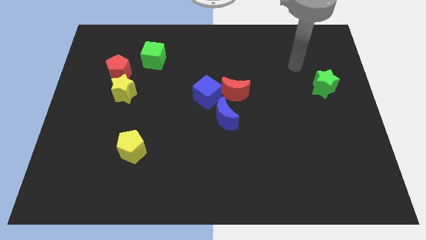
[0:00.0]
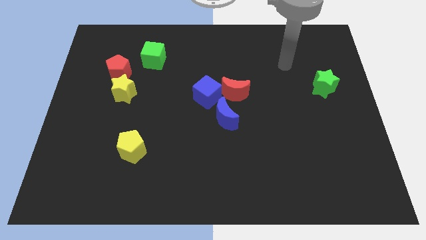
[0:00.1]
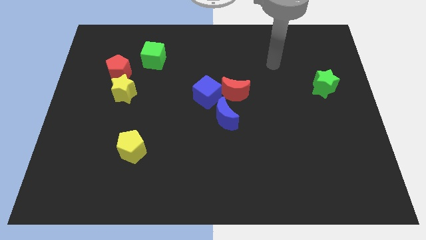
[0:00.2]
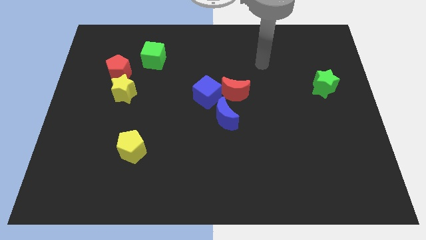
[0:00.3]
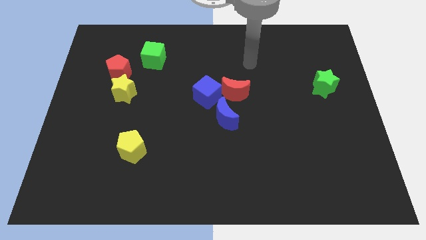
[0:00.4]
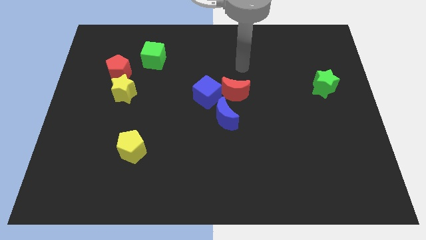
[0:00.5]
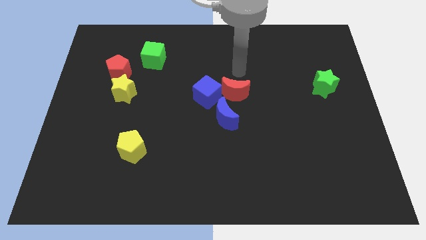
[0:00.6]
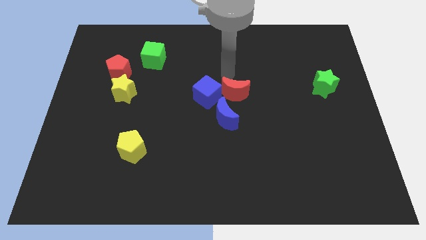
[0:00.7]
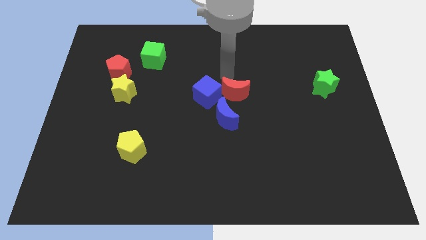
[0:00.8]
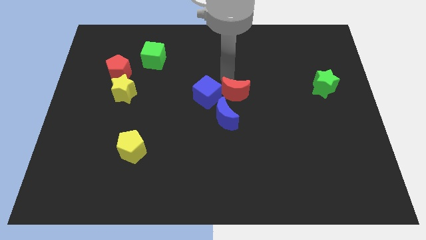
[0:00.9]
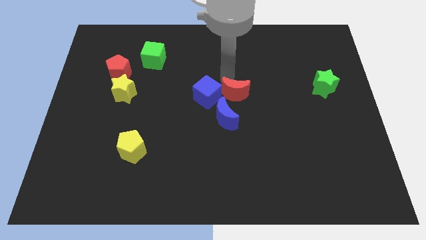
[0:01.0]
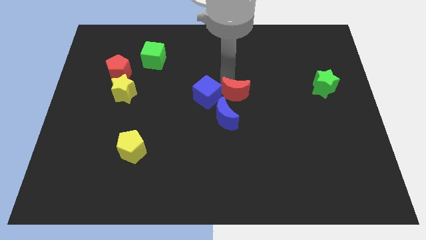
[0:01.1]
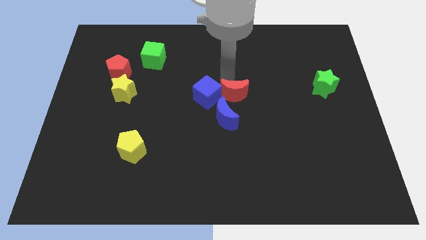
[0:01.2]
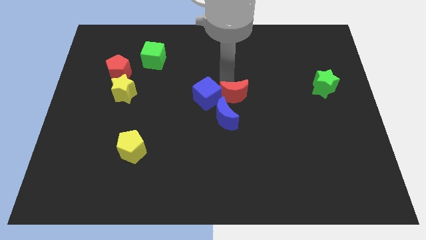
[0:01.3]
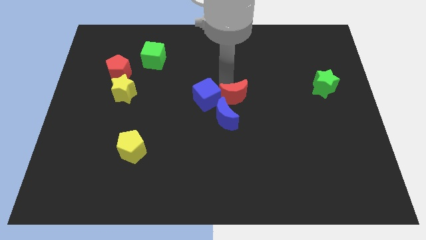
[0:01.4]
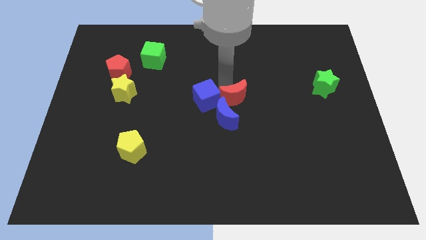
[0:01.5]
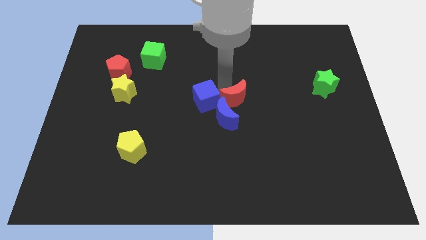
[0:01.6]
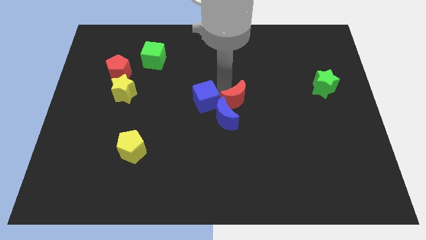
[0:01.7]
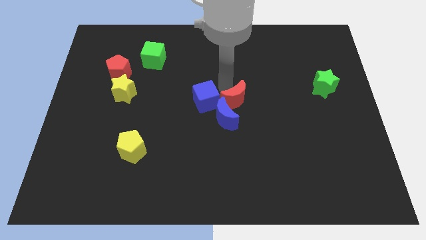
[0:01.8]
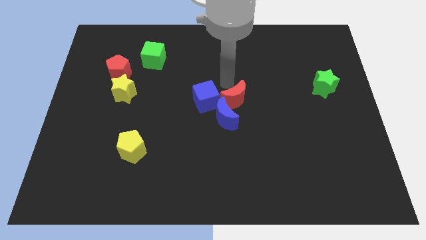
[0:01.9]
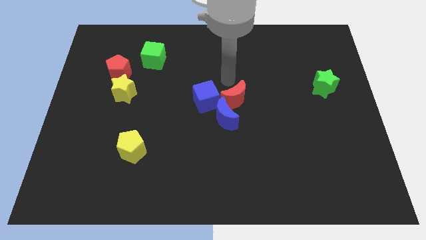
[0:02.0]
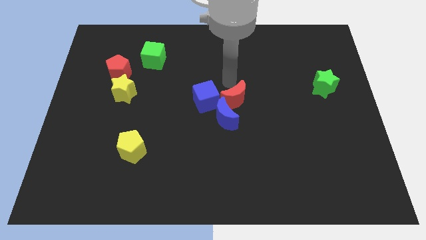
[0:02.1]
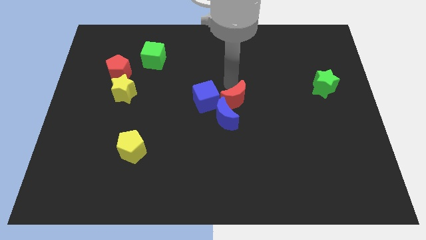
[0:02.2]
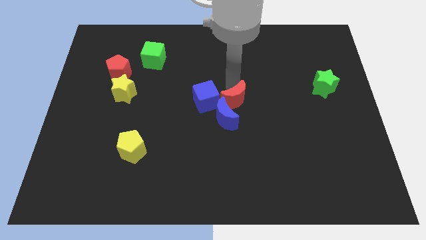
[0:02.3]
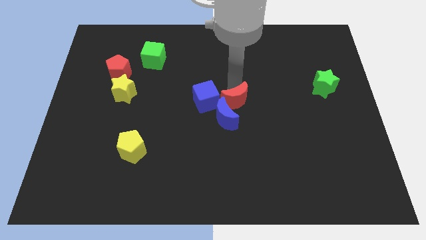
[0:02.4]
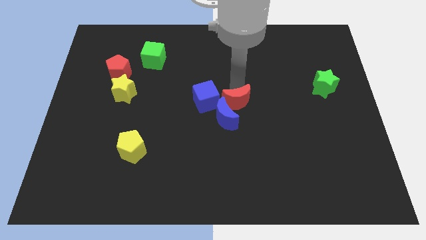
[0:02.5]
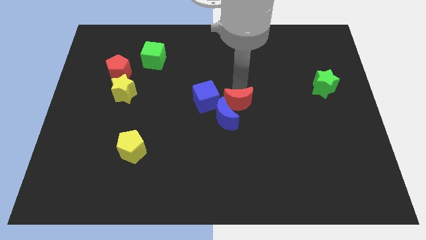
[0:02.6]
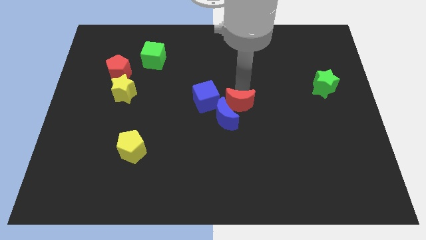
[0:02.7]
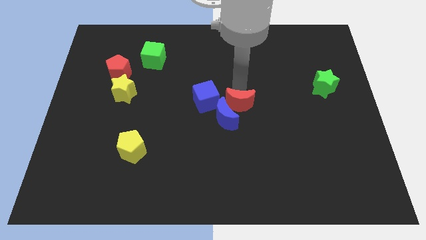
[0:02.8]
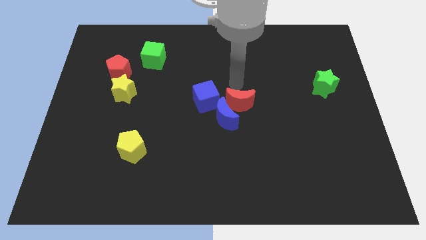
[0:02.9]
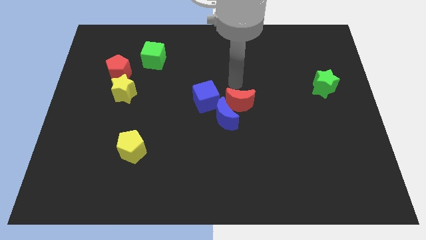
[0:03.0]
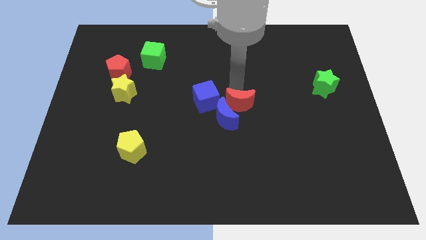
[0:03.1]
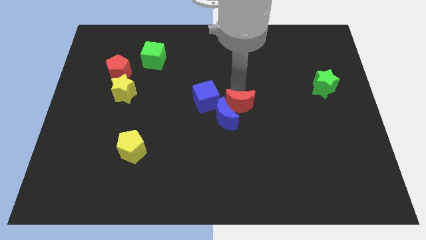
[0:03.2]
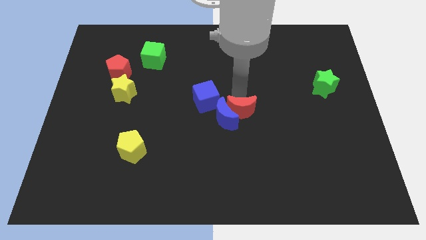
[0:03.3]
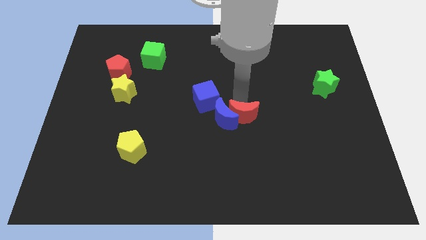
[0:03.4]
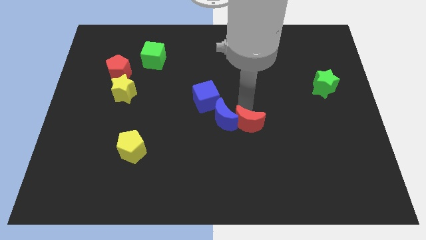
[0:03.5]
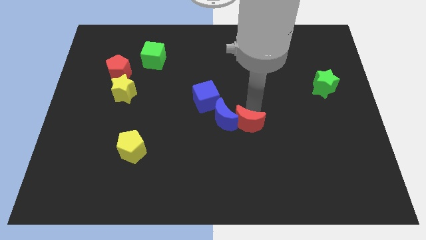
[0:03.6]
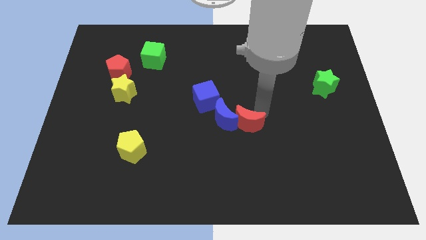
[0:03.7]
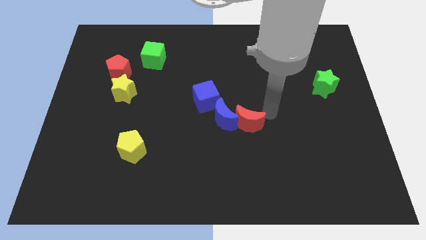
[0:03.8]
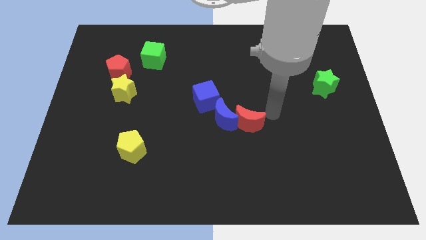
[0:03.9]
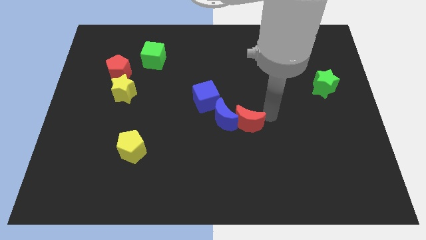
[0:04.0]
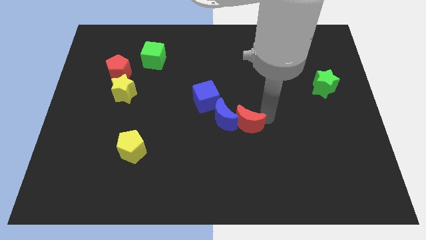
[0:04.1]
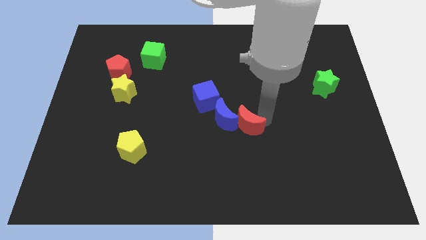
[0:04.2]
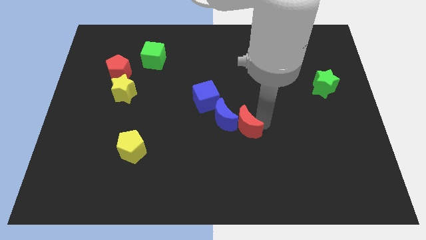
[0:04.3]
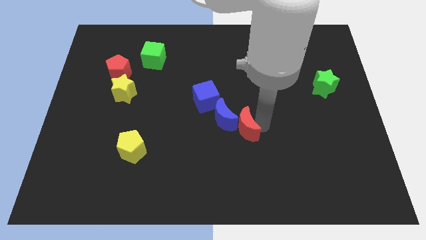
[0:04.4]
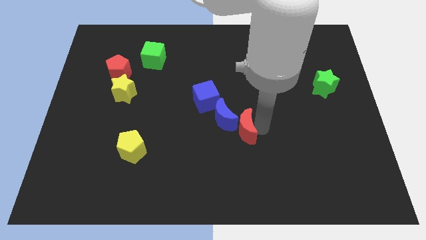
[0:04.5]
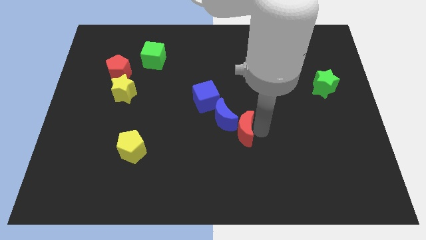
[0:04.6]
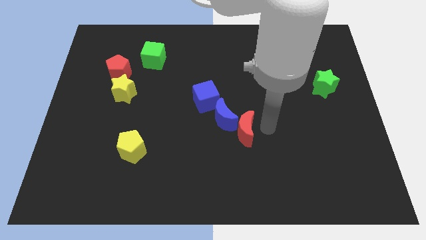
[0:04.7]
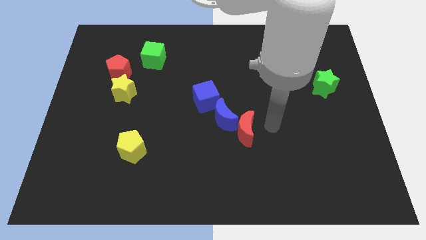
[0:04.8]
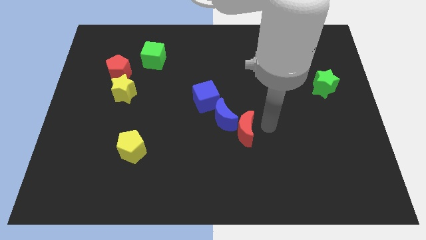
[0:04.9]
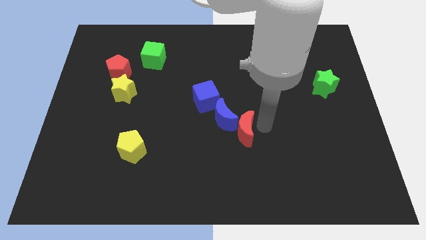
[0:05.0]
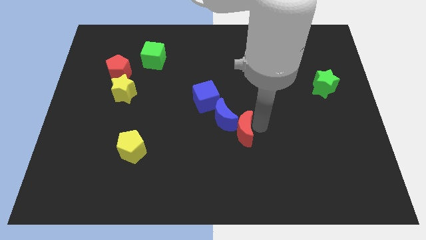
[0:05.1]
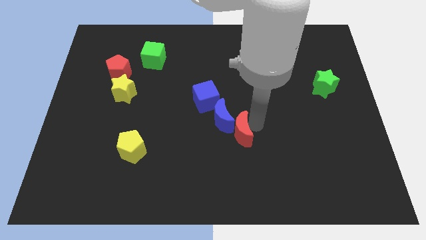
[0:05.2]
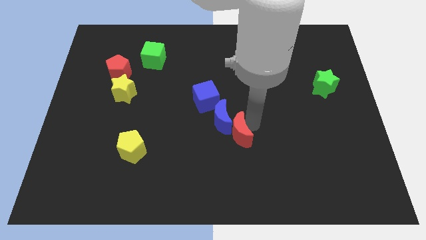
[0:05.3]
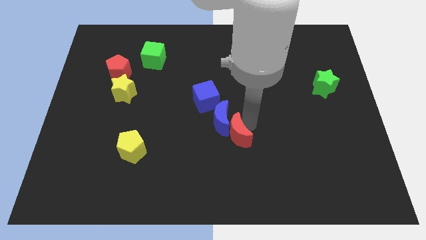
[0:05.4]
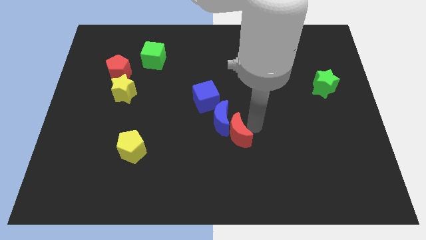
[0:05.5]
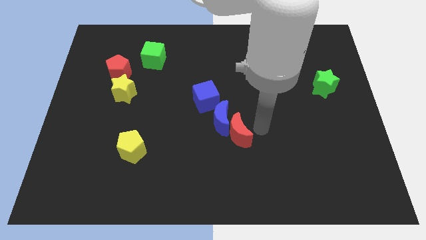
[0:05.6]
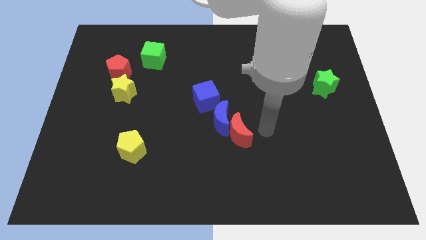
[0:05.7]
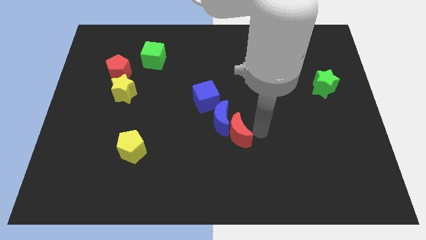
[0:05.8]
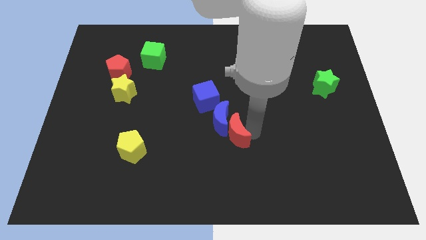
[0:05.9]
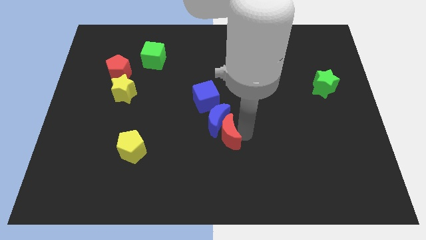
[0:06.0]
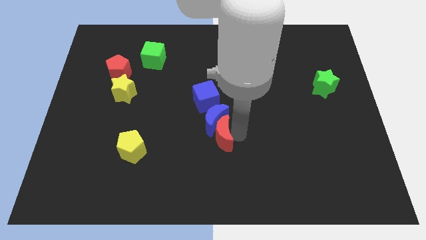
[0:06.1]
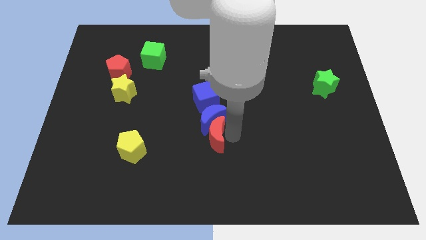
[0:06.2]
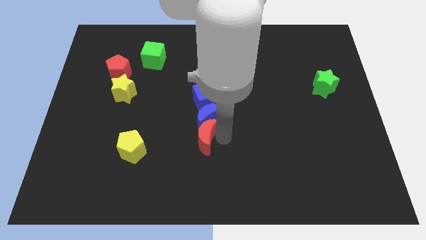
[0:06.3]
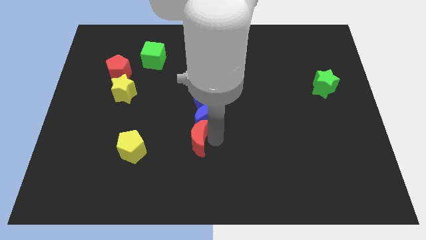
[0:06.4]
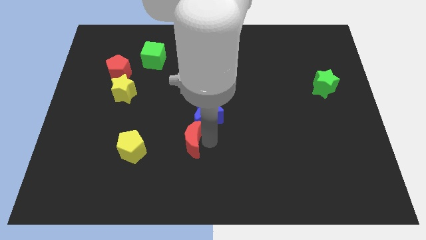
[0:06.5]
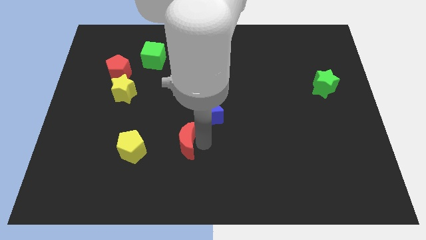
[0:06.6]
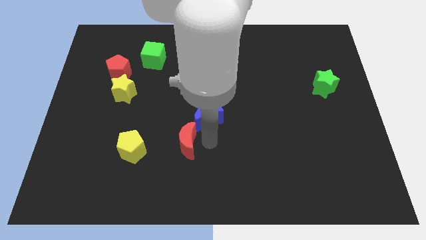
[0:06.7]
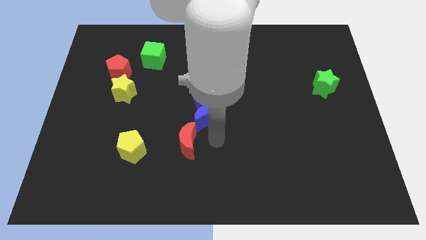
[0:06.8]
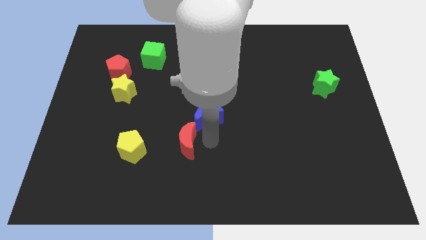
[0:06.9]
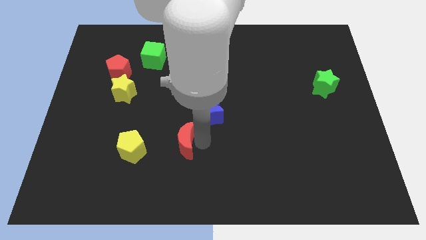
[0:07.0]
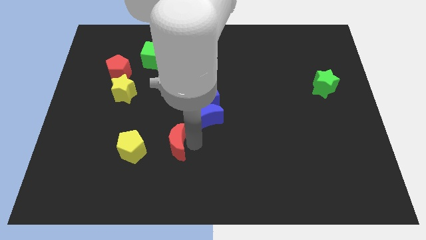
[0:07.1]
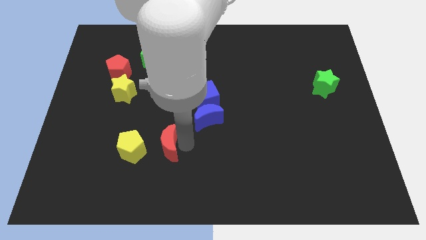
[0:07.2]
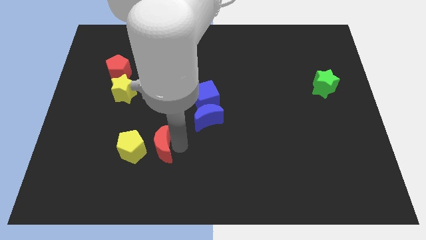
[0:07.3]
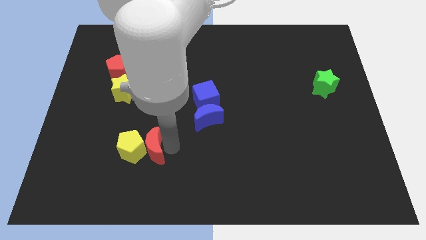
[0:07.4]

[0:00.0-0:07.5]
slide the red moon next to the yellow pentagon
